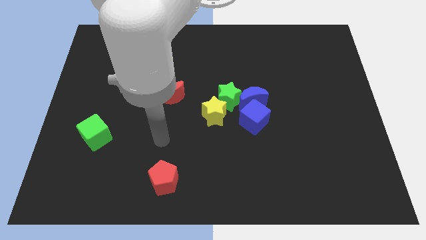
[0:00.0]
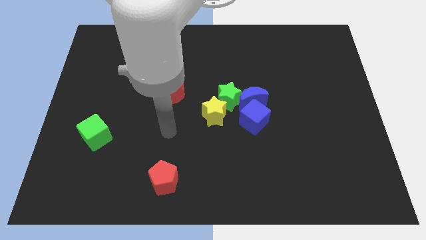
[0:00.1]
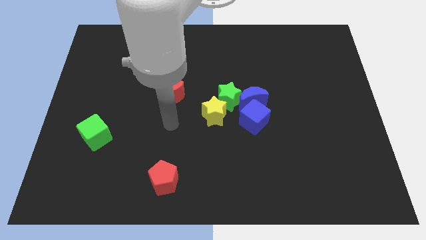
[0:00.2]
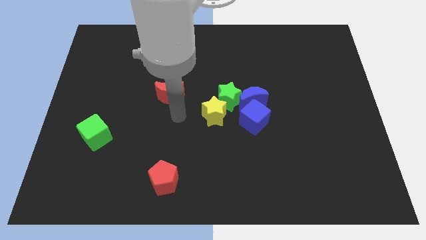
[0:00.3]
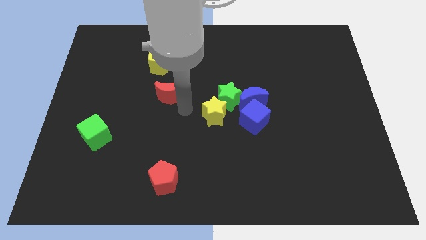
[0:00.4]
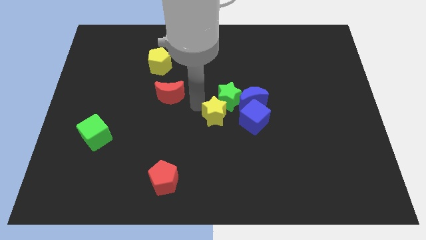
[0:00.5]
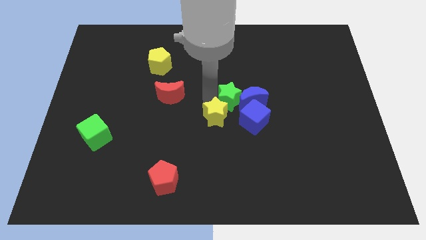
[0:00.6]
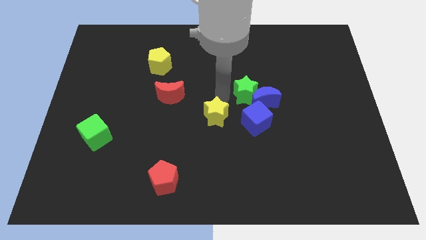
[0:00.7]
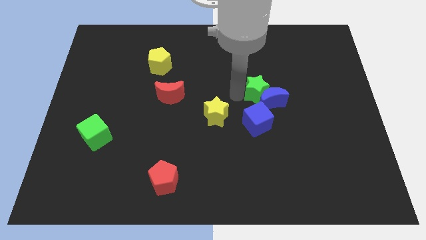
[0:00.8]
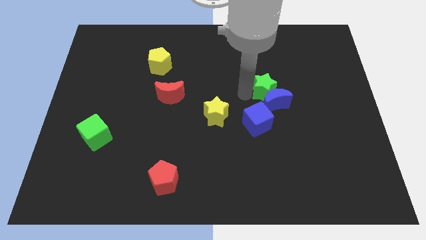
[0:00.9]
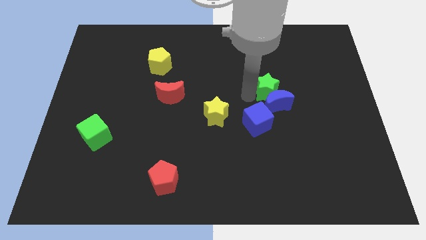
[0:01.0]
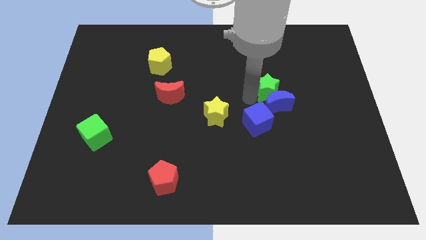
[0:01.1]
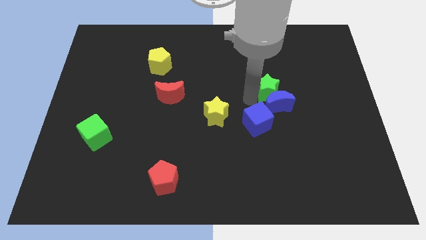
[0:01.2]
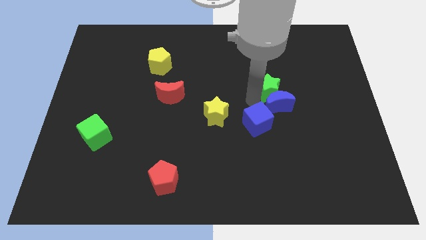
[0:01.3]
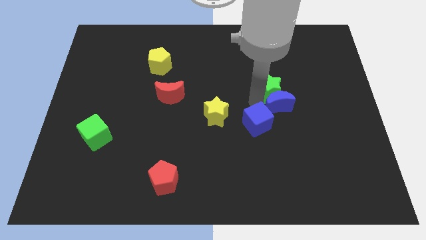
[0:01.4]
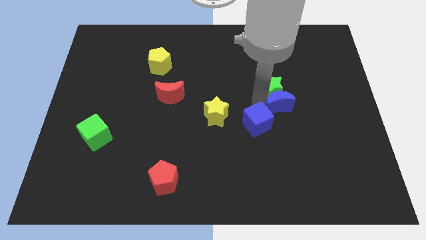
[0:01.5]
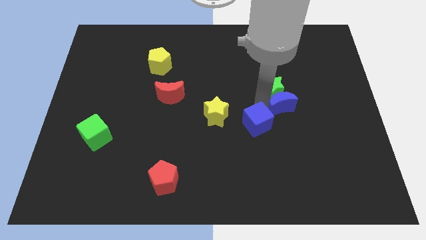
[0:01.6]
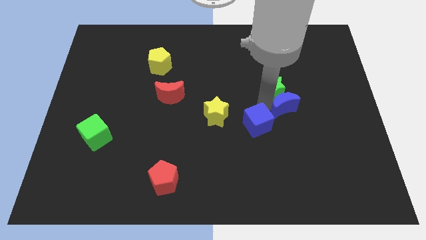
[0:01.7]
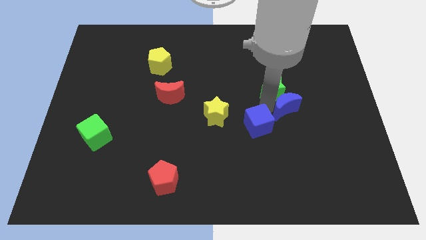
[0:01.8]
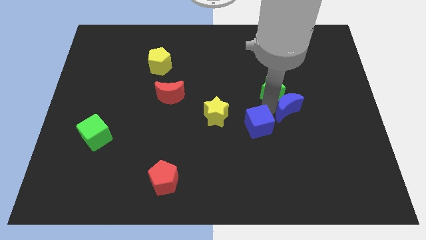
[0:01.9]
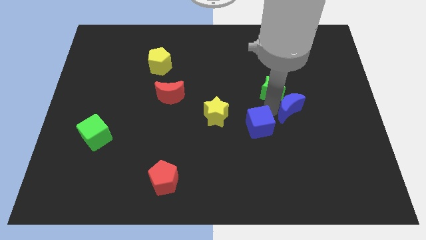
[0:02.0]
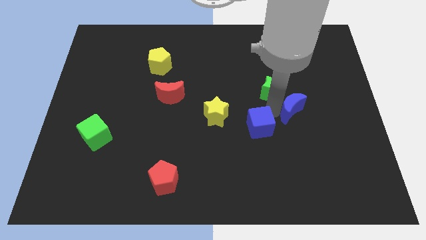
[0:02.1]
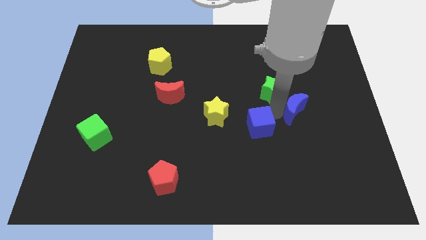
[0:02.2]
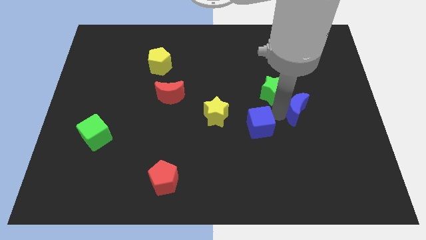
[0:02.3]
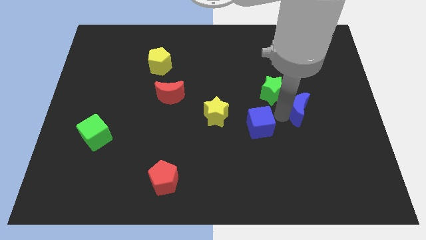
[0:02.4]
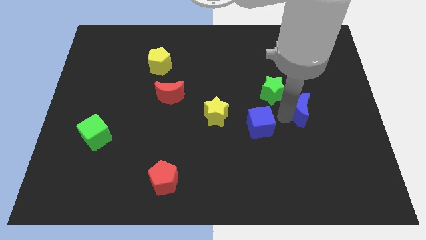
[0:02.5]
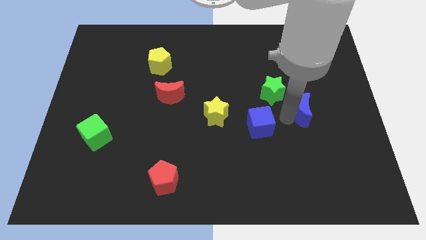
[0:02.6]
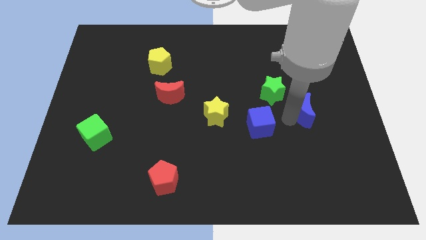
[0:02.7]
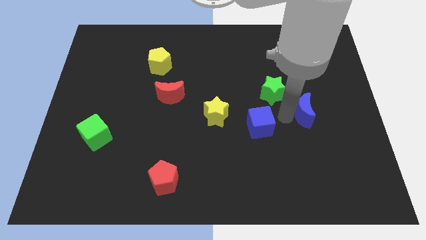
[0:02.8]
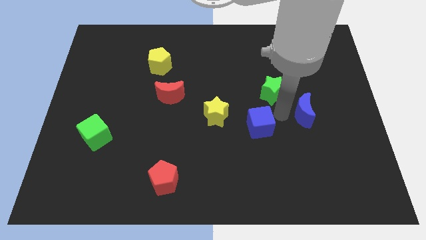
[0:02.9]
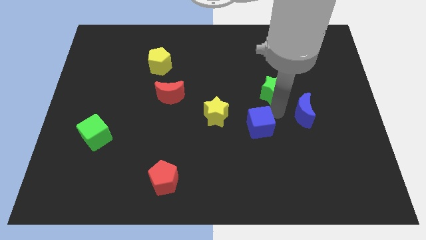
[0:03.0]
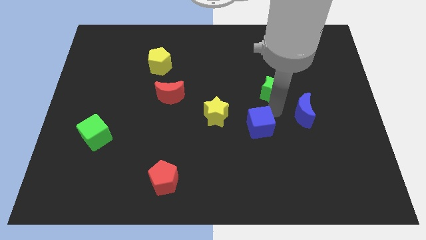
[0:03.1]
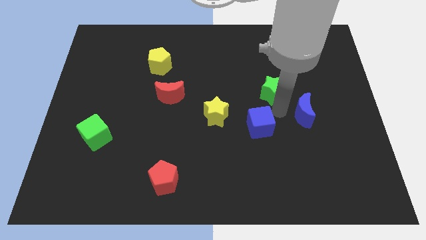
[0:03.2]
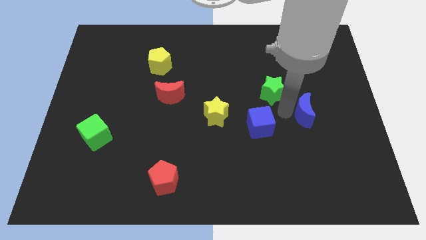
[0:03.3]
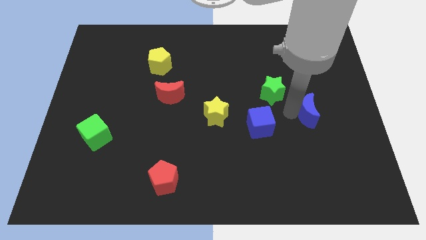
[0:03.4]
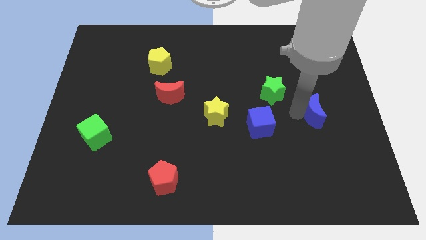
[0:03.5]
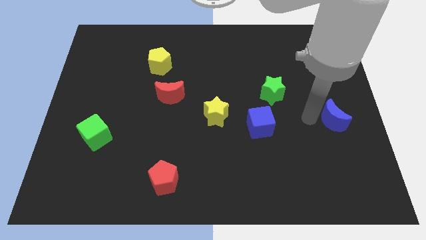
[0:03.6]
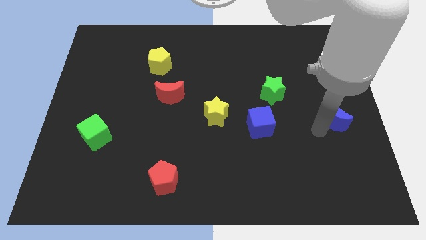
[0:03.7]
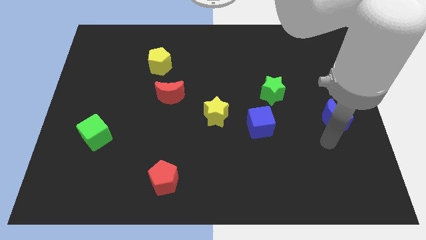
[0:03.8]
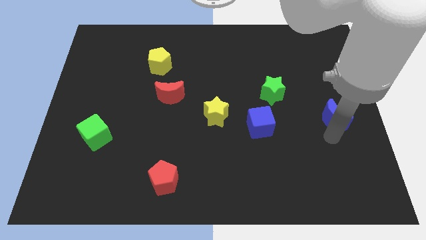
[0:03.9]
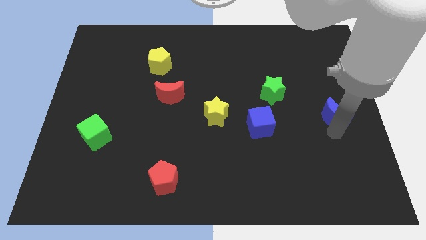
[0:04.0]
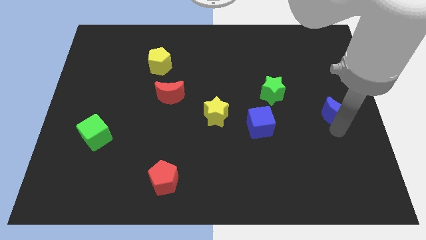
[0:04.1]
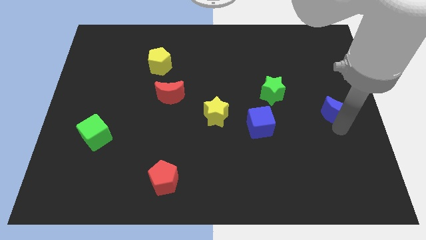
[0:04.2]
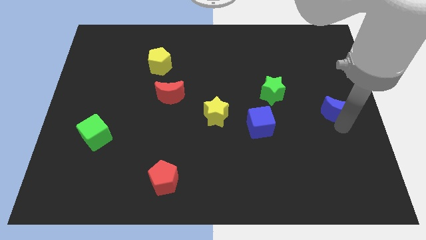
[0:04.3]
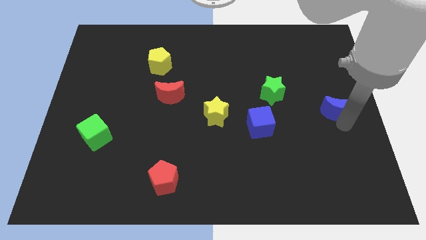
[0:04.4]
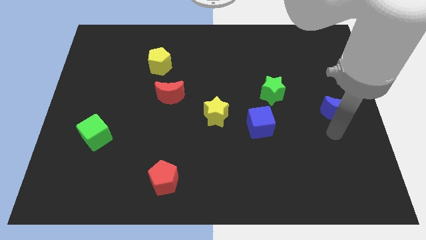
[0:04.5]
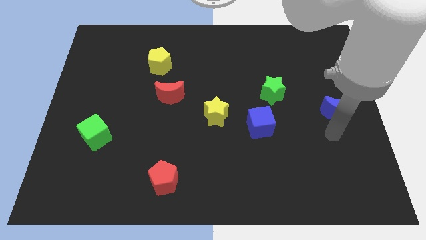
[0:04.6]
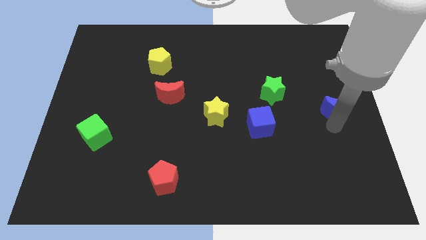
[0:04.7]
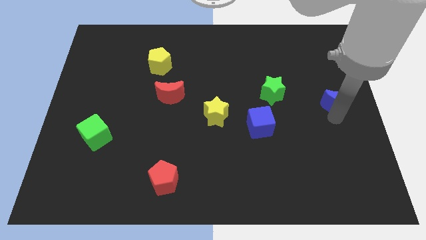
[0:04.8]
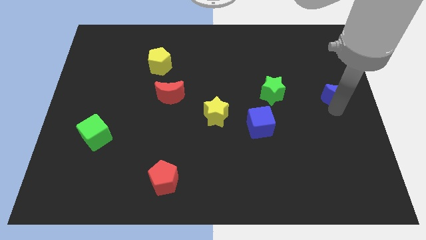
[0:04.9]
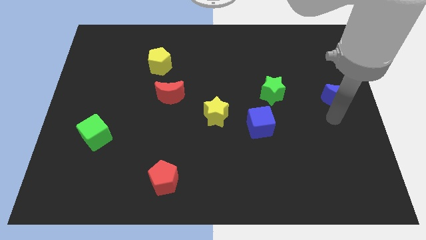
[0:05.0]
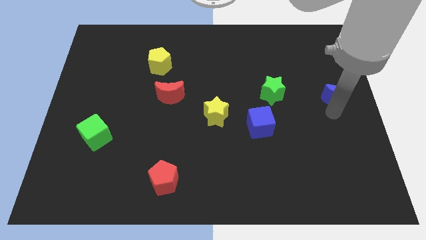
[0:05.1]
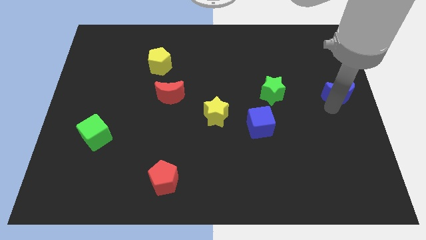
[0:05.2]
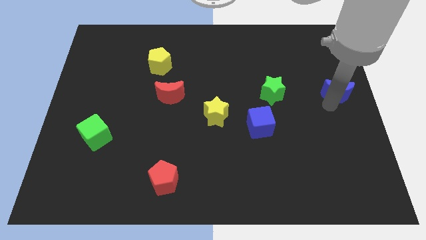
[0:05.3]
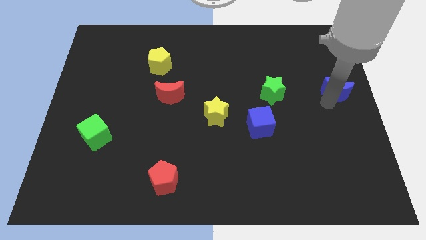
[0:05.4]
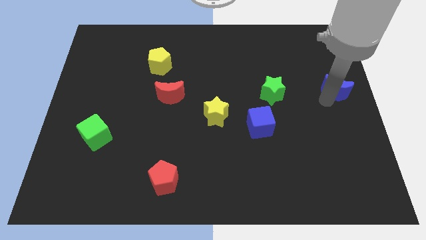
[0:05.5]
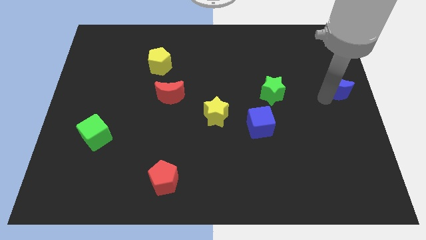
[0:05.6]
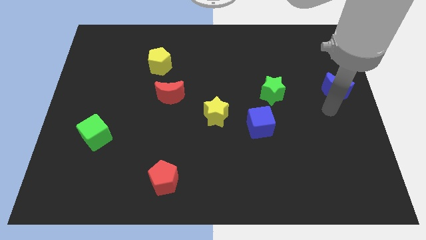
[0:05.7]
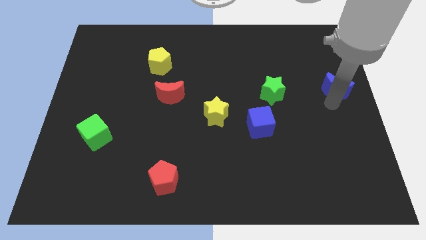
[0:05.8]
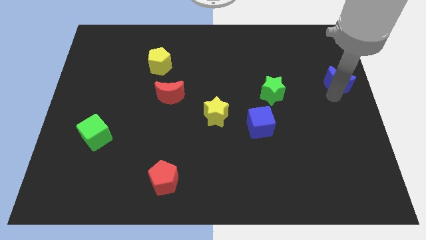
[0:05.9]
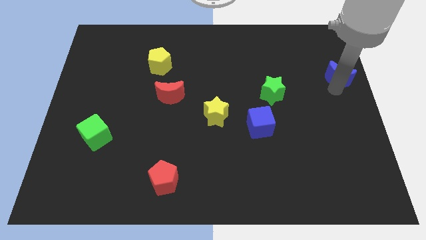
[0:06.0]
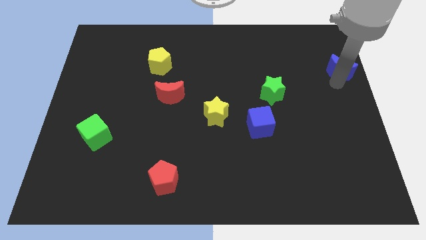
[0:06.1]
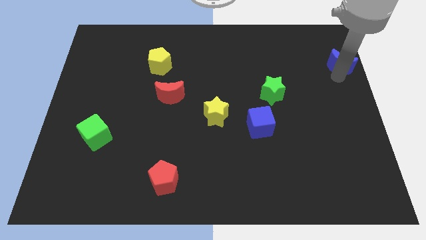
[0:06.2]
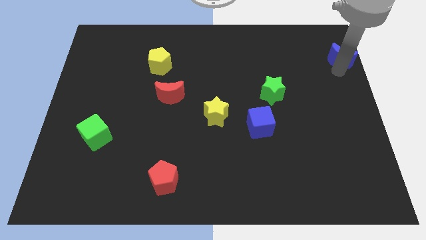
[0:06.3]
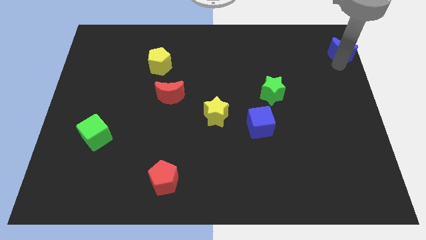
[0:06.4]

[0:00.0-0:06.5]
slide the blue moon to the upper right corner

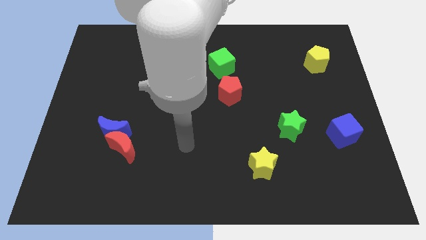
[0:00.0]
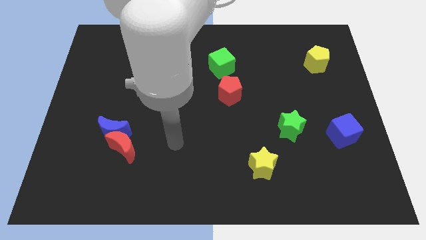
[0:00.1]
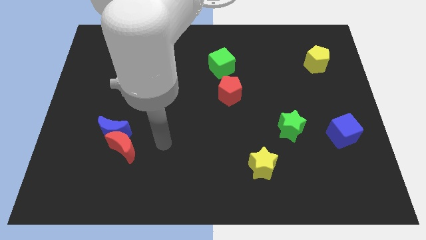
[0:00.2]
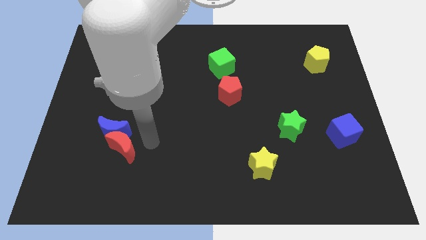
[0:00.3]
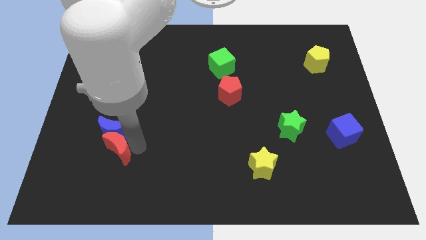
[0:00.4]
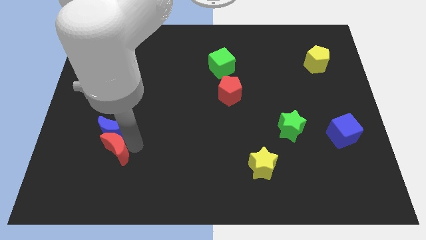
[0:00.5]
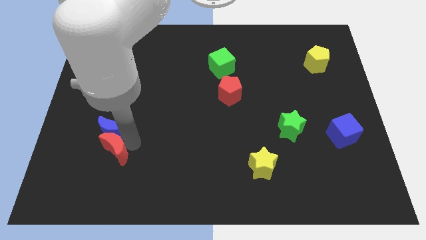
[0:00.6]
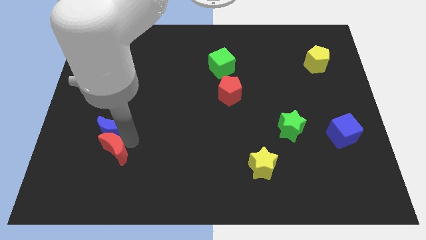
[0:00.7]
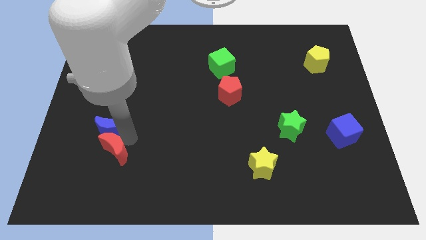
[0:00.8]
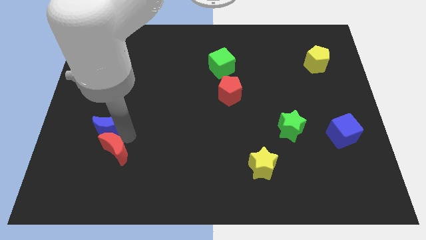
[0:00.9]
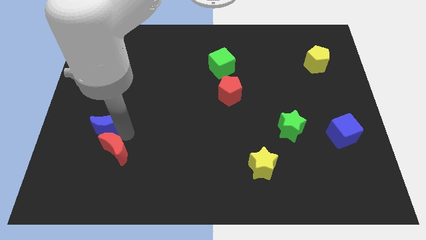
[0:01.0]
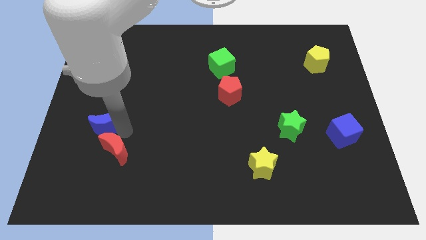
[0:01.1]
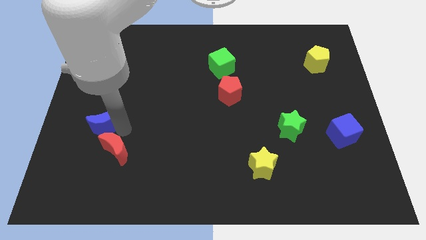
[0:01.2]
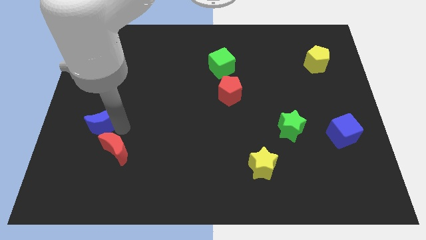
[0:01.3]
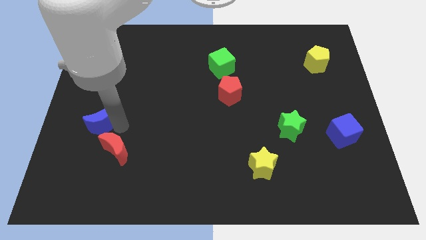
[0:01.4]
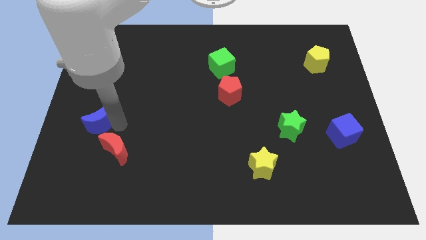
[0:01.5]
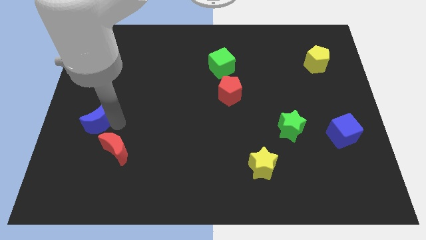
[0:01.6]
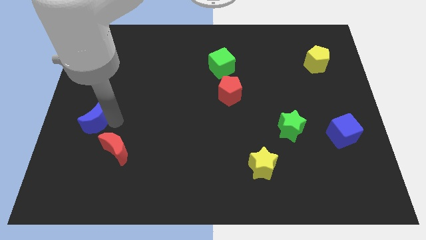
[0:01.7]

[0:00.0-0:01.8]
push the blue moon to the left side of the board
